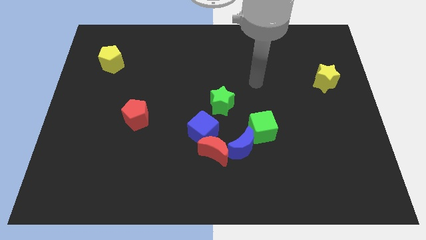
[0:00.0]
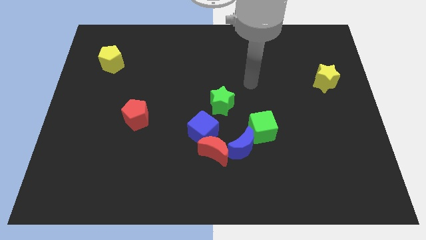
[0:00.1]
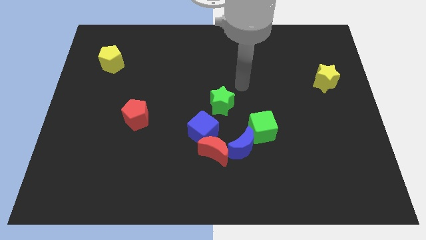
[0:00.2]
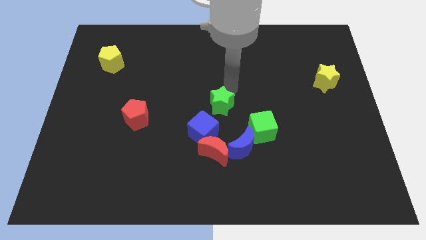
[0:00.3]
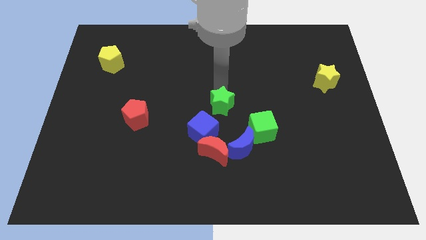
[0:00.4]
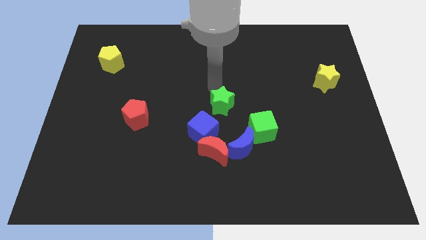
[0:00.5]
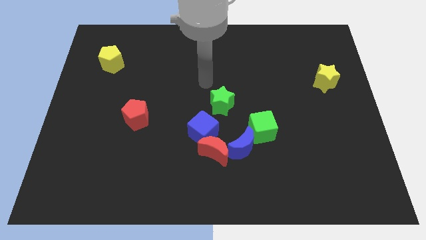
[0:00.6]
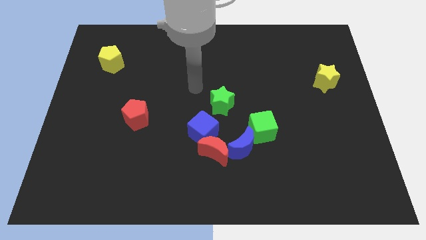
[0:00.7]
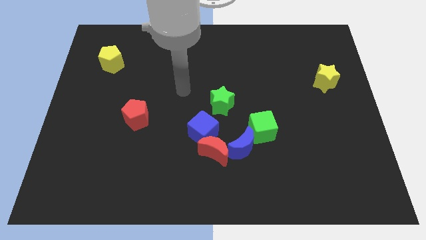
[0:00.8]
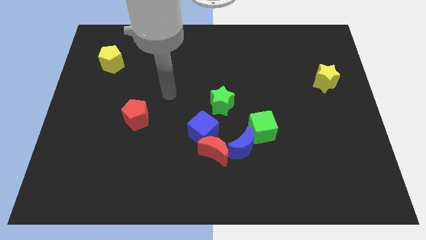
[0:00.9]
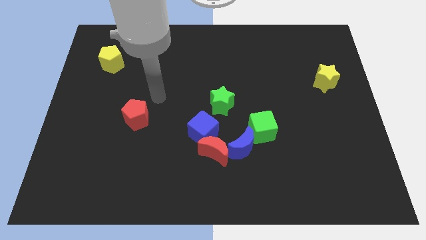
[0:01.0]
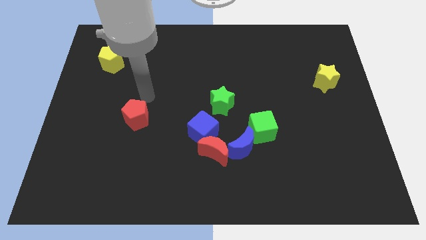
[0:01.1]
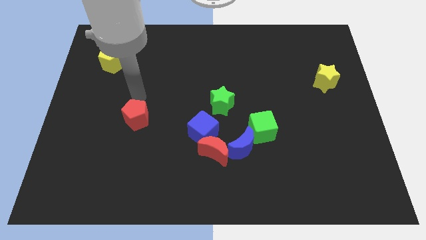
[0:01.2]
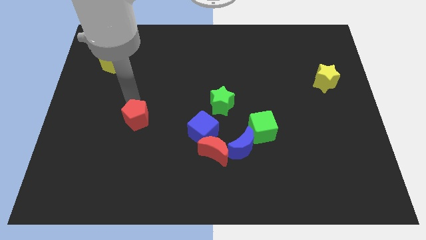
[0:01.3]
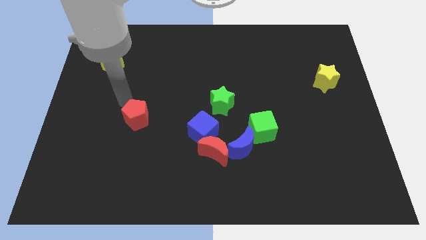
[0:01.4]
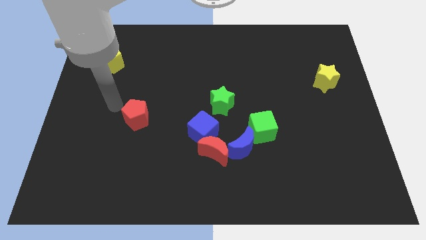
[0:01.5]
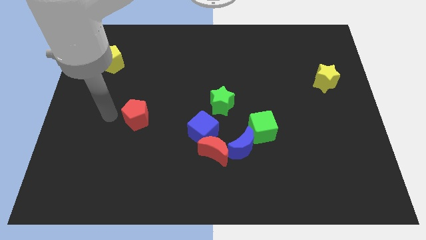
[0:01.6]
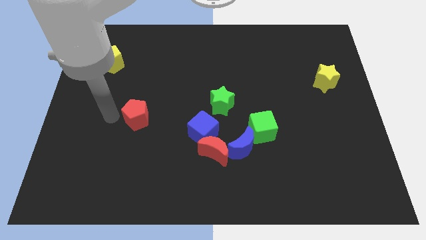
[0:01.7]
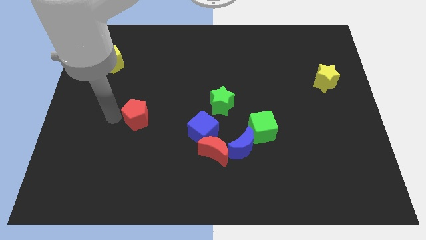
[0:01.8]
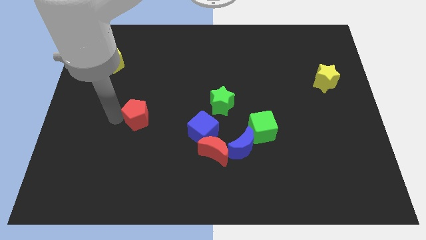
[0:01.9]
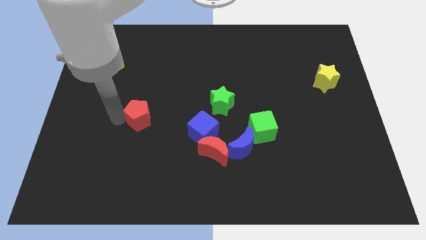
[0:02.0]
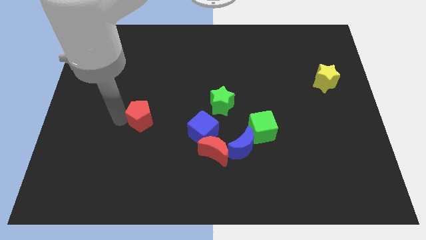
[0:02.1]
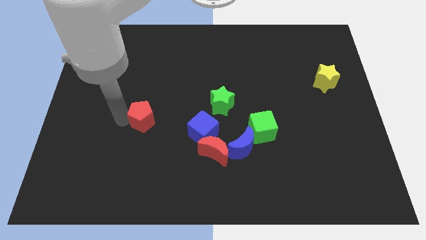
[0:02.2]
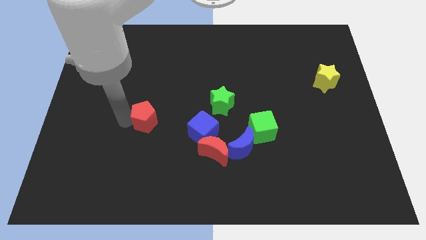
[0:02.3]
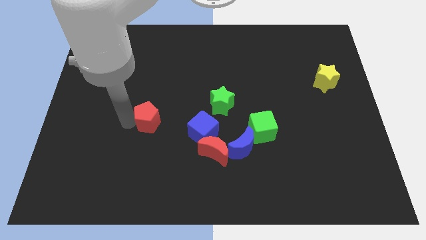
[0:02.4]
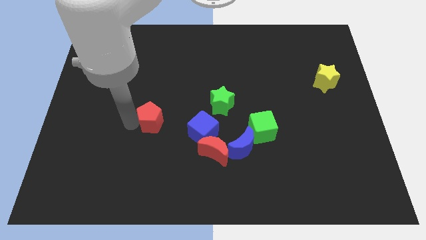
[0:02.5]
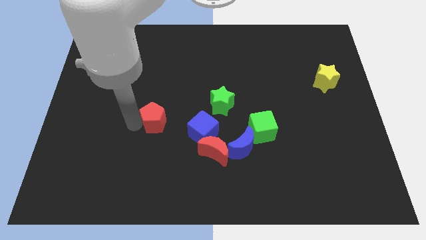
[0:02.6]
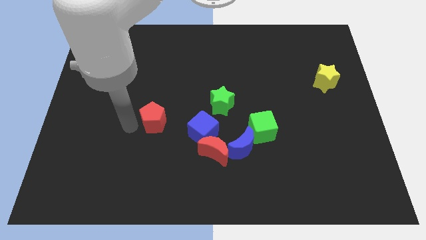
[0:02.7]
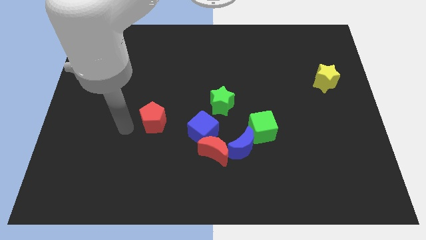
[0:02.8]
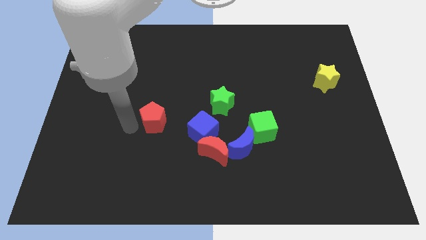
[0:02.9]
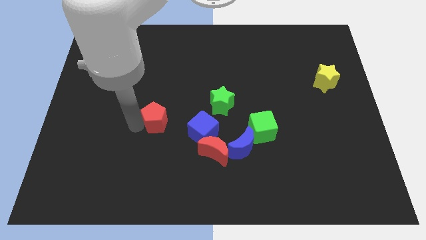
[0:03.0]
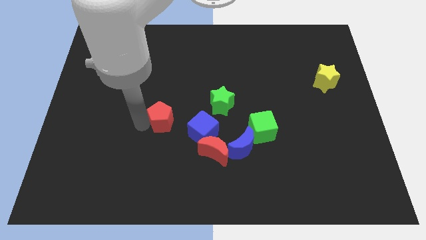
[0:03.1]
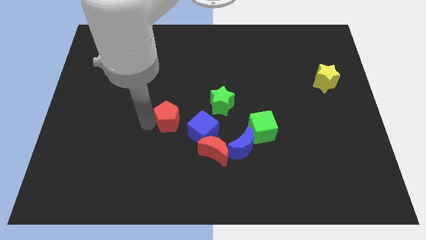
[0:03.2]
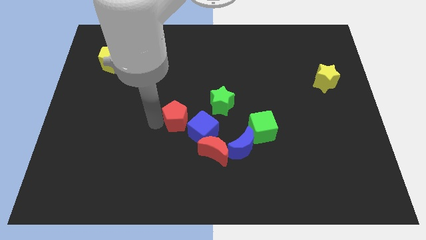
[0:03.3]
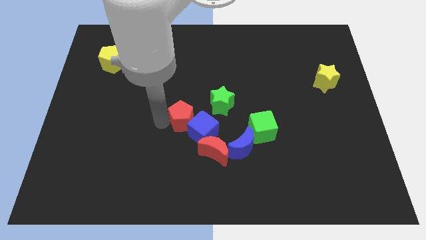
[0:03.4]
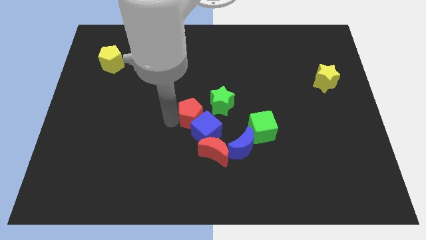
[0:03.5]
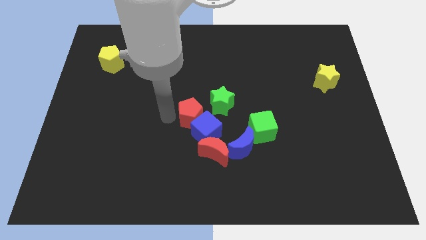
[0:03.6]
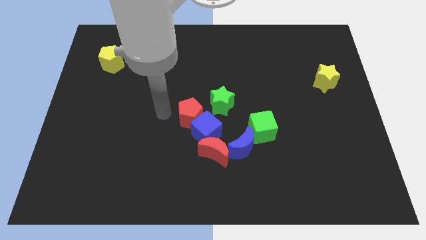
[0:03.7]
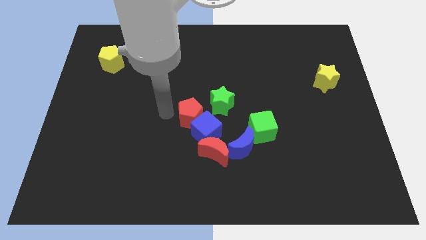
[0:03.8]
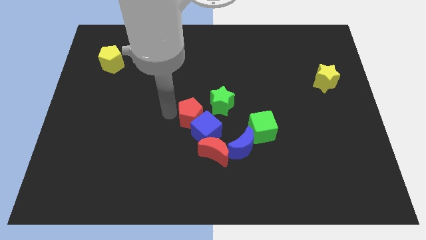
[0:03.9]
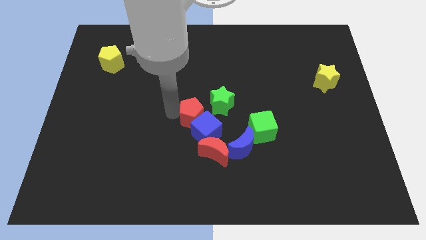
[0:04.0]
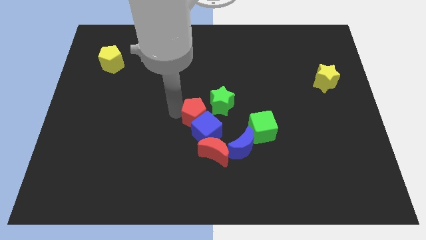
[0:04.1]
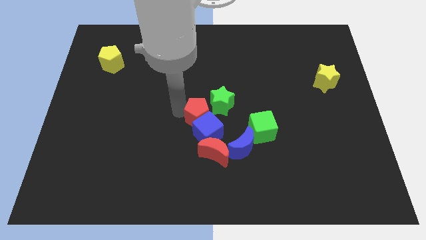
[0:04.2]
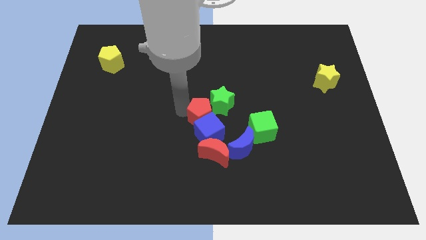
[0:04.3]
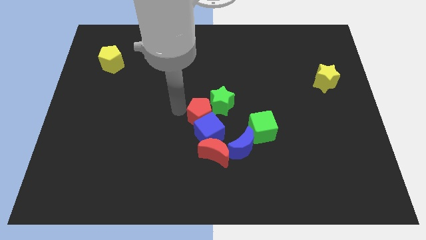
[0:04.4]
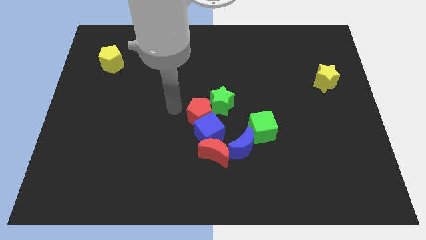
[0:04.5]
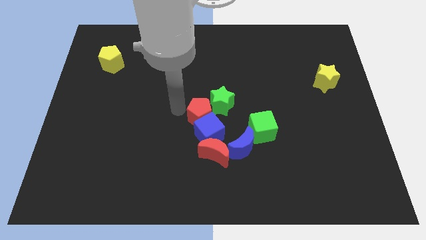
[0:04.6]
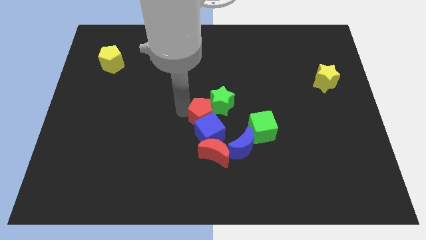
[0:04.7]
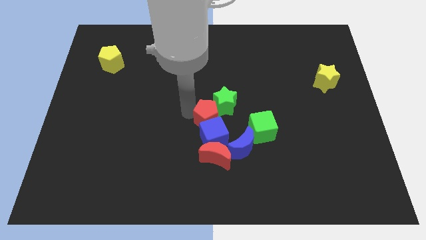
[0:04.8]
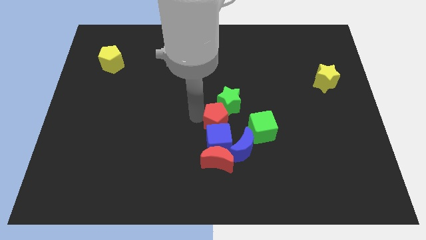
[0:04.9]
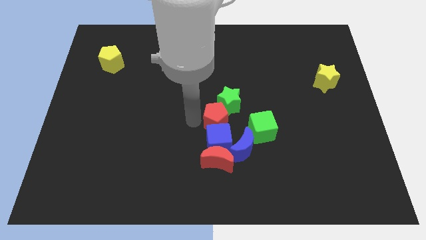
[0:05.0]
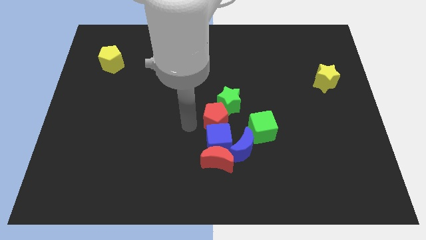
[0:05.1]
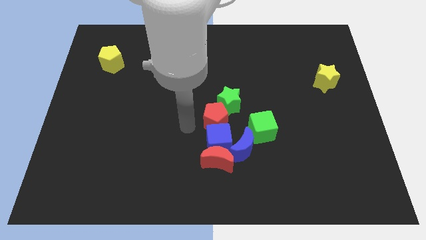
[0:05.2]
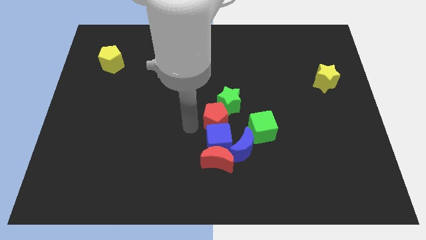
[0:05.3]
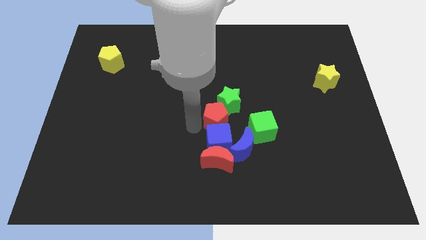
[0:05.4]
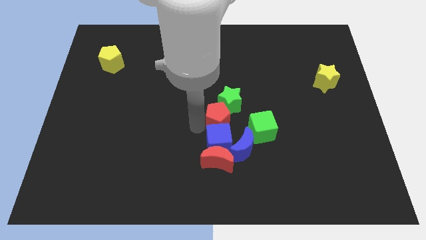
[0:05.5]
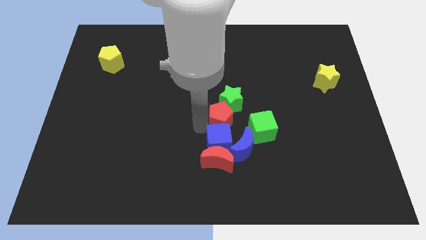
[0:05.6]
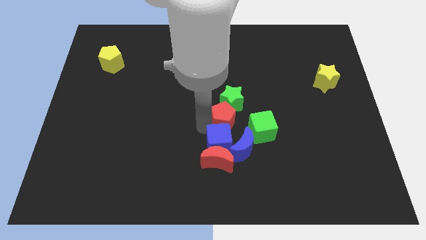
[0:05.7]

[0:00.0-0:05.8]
slide the red pentagon right

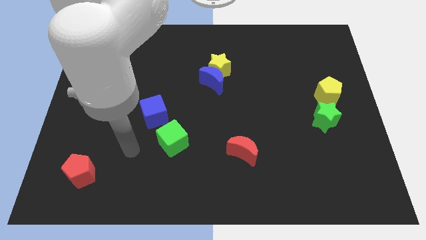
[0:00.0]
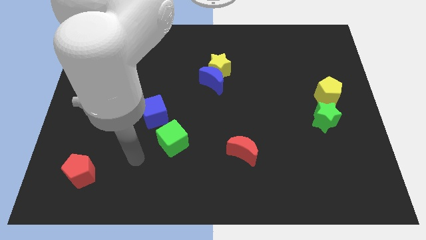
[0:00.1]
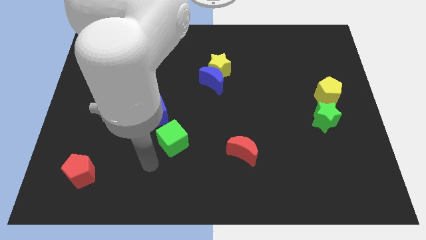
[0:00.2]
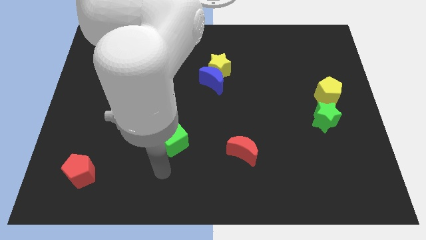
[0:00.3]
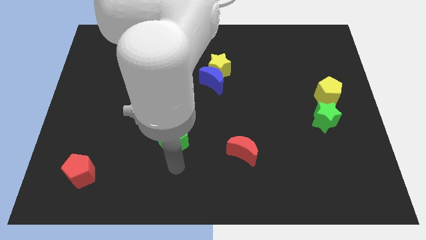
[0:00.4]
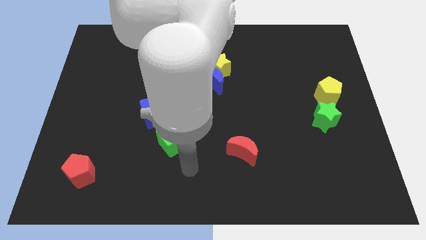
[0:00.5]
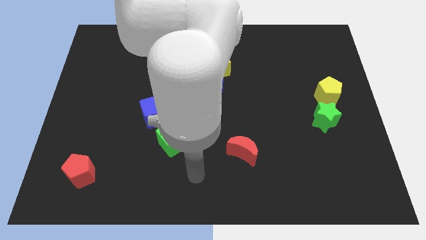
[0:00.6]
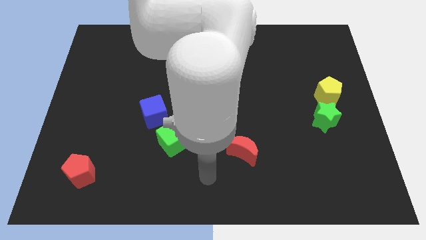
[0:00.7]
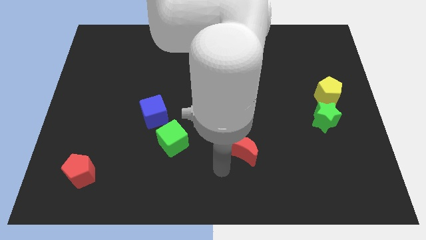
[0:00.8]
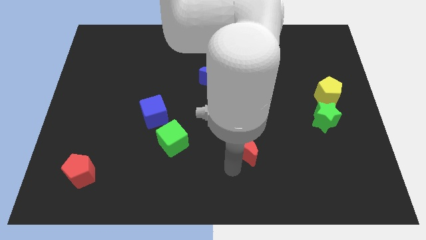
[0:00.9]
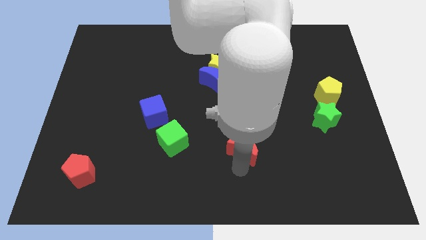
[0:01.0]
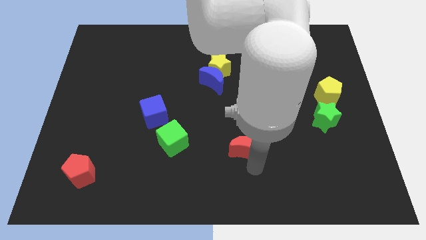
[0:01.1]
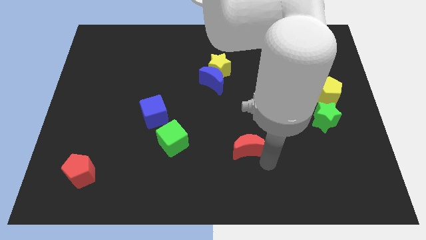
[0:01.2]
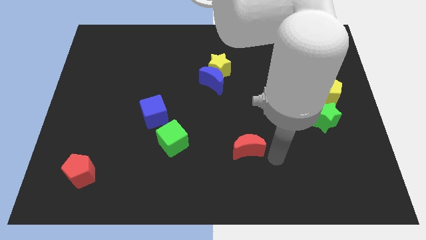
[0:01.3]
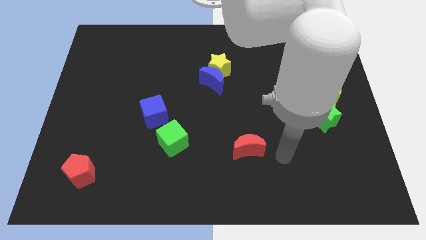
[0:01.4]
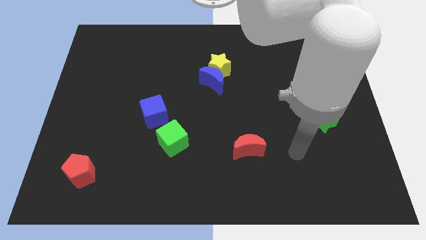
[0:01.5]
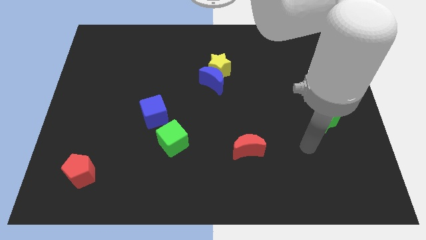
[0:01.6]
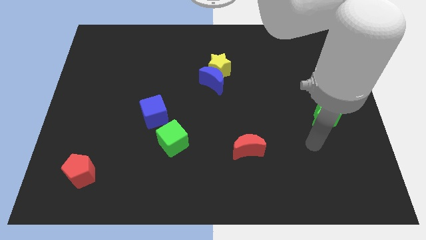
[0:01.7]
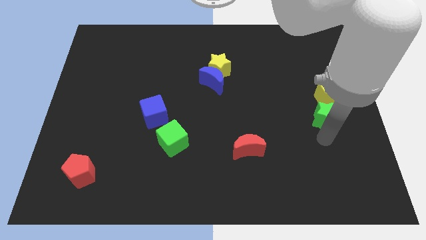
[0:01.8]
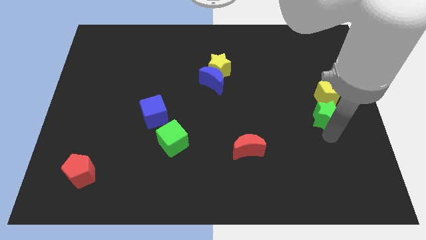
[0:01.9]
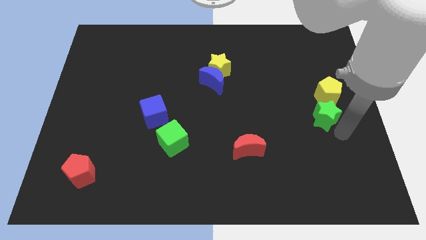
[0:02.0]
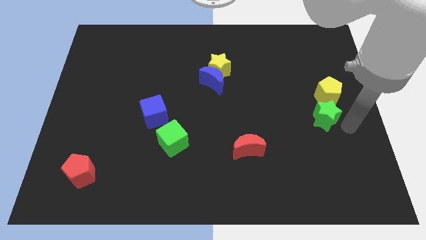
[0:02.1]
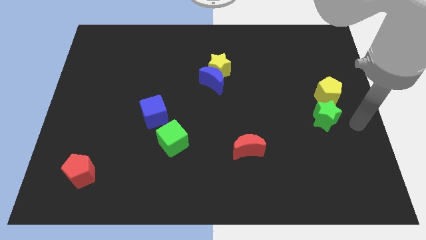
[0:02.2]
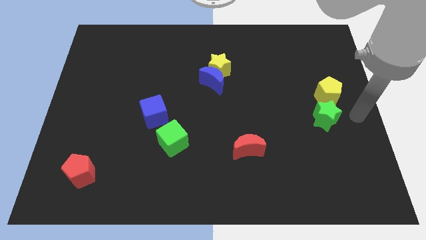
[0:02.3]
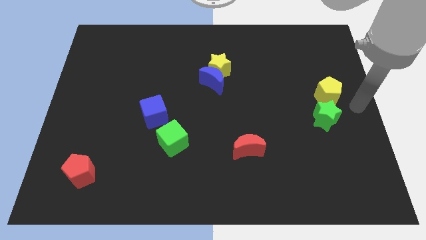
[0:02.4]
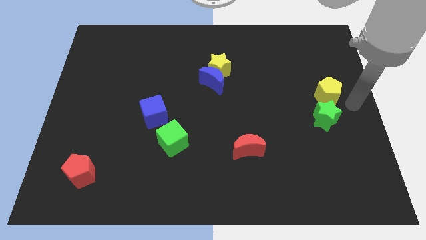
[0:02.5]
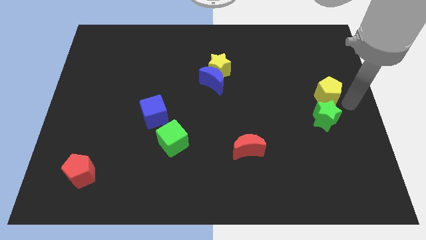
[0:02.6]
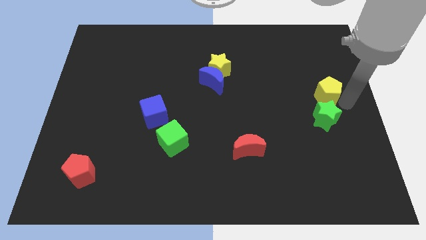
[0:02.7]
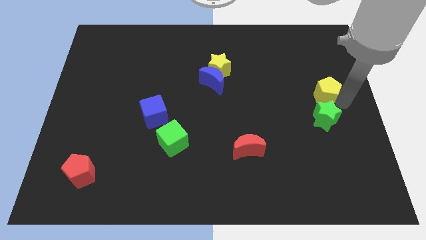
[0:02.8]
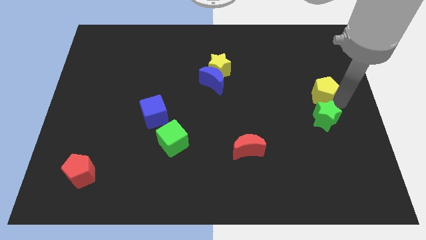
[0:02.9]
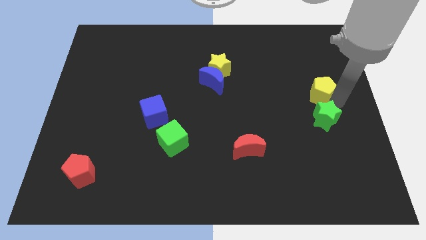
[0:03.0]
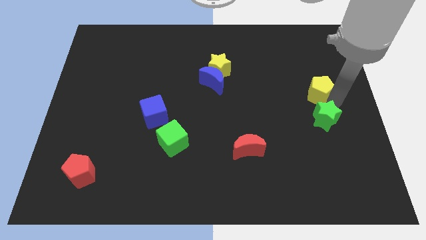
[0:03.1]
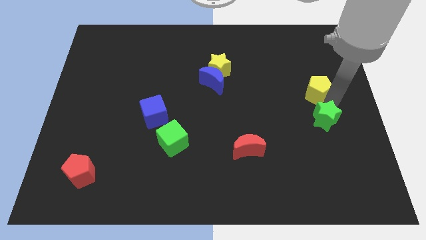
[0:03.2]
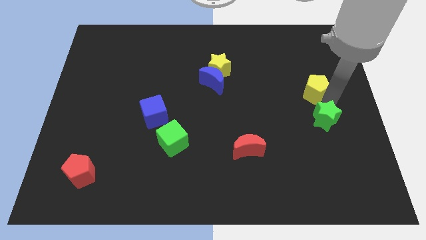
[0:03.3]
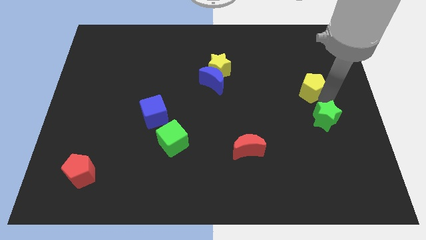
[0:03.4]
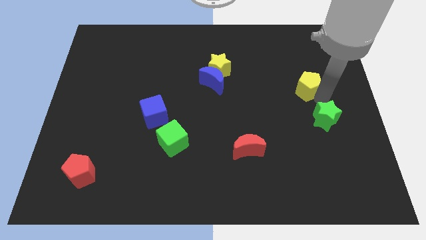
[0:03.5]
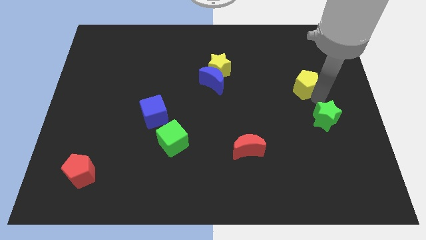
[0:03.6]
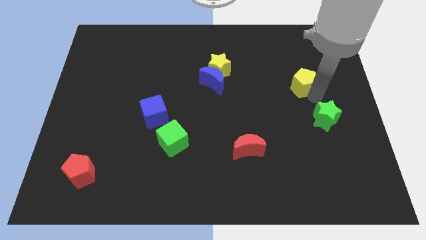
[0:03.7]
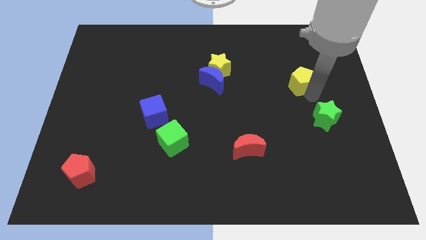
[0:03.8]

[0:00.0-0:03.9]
move the yellow pentagon upwards and then left slightly
